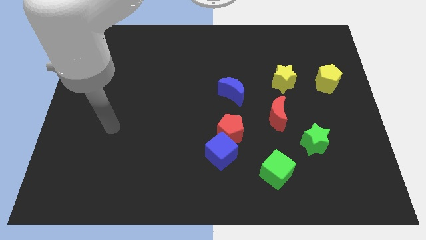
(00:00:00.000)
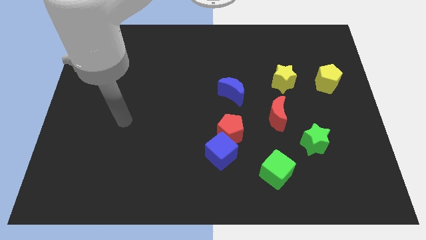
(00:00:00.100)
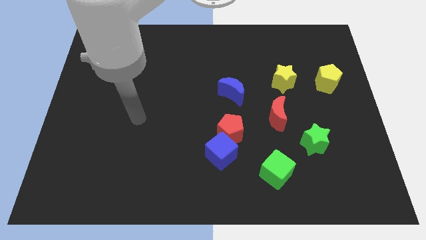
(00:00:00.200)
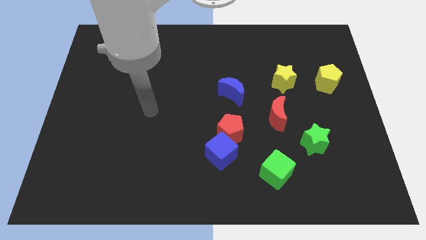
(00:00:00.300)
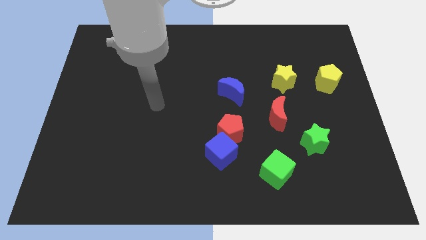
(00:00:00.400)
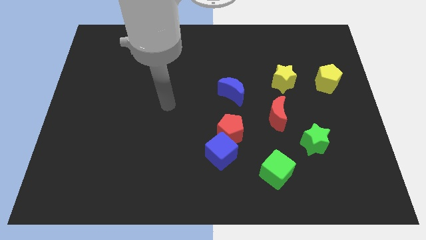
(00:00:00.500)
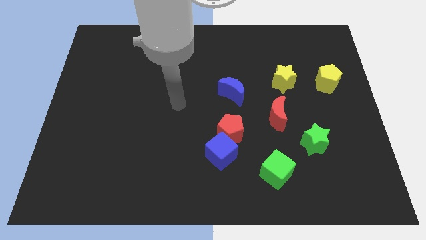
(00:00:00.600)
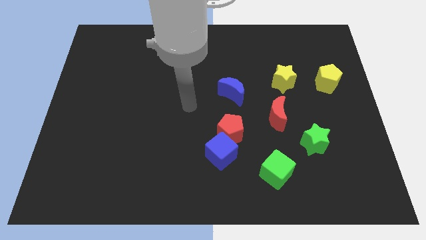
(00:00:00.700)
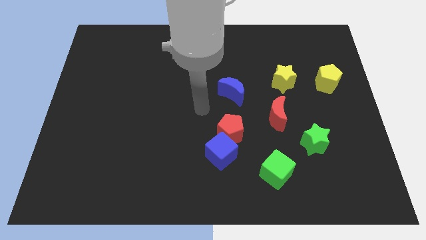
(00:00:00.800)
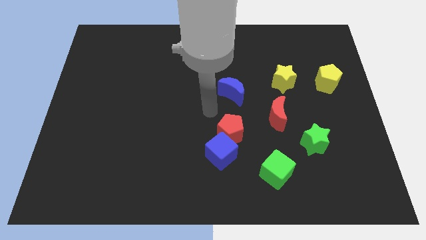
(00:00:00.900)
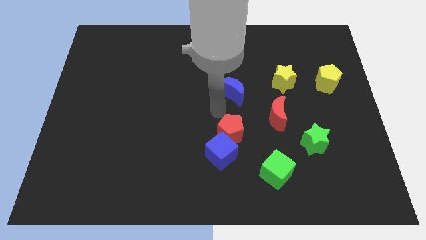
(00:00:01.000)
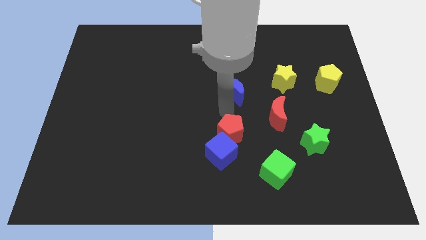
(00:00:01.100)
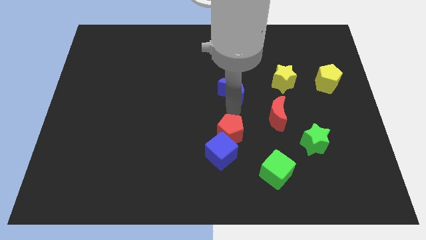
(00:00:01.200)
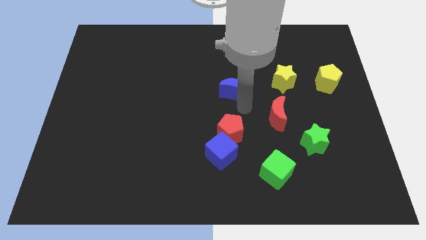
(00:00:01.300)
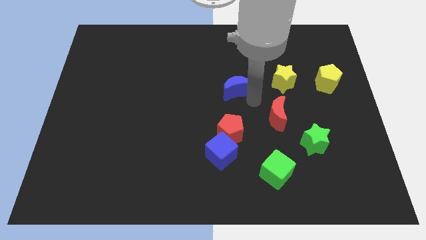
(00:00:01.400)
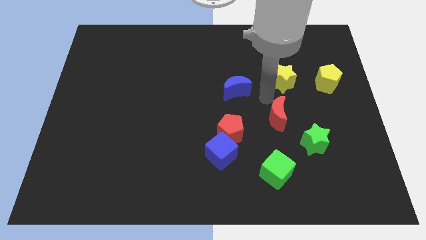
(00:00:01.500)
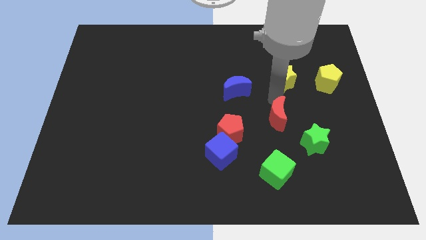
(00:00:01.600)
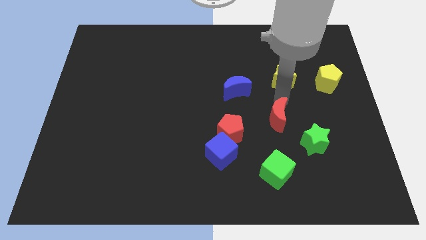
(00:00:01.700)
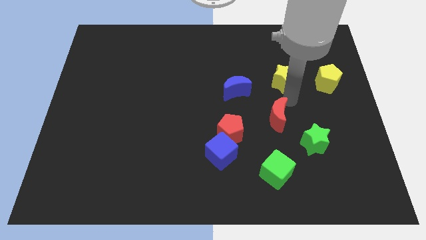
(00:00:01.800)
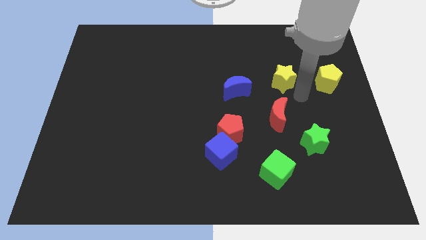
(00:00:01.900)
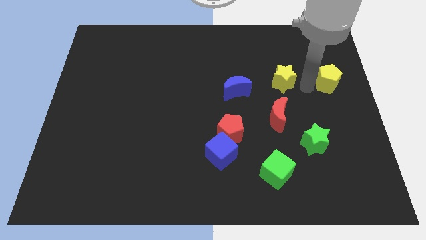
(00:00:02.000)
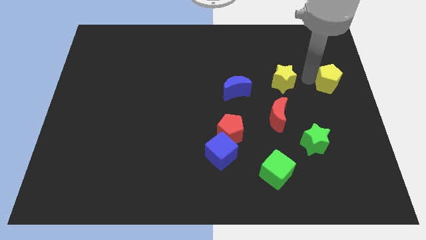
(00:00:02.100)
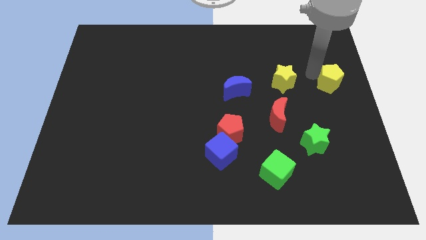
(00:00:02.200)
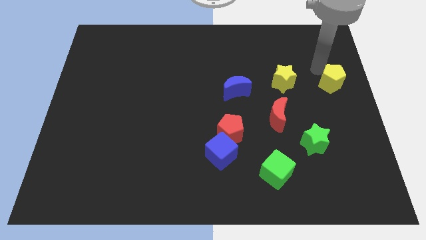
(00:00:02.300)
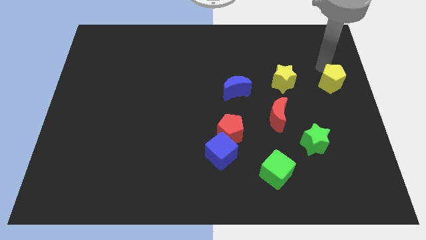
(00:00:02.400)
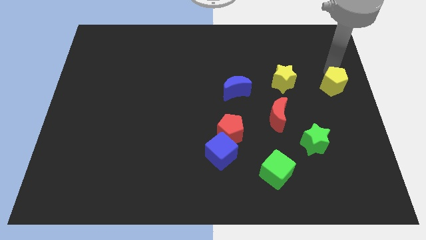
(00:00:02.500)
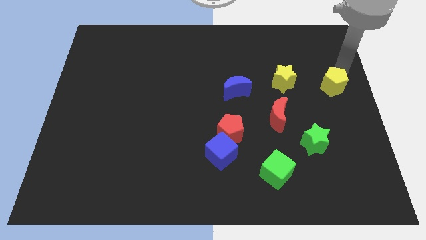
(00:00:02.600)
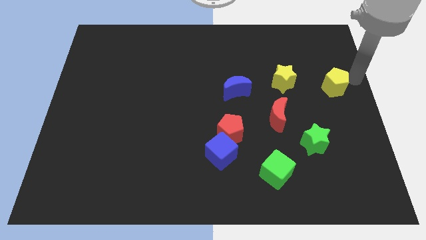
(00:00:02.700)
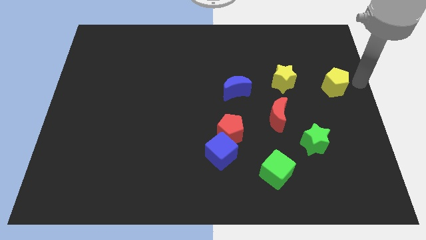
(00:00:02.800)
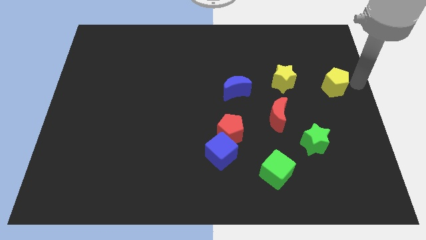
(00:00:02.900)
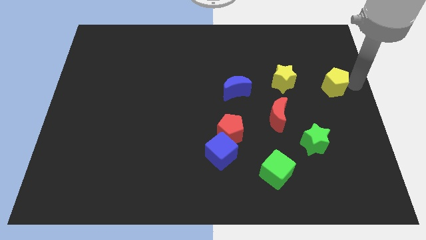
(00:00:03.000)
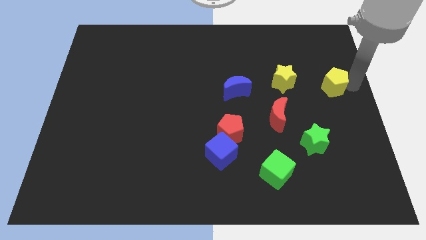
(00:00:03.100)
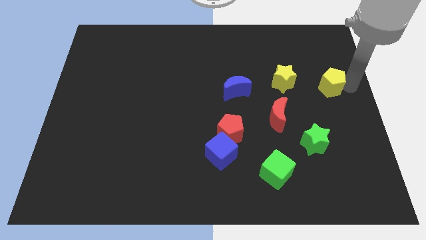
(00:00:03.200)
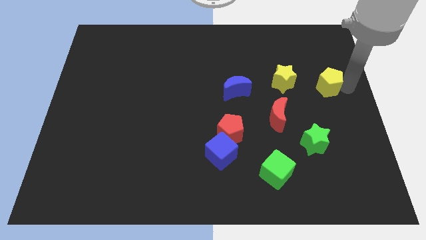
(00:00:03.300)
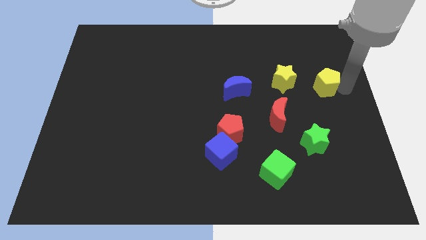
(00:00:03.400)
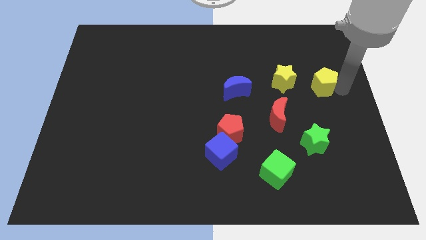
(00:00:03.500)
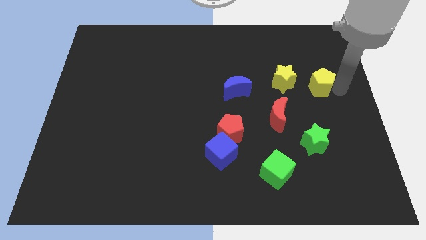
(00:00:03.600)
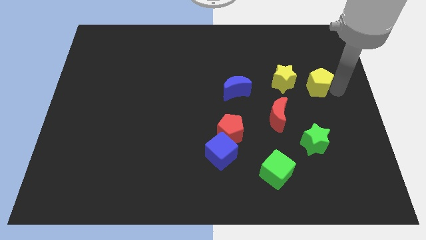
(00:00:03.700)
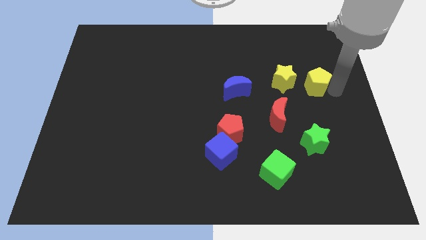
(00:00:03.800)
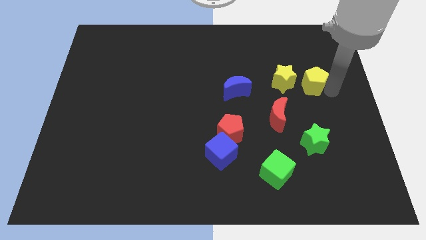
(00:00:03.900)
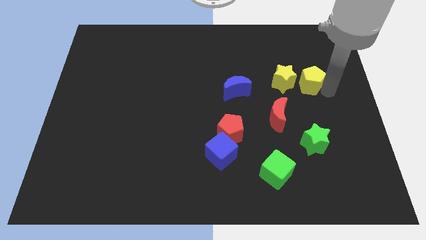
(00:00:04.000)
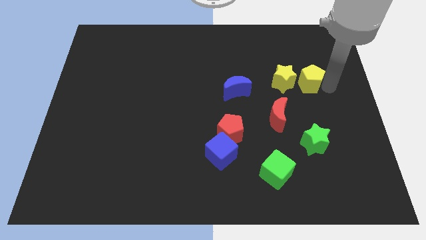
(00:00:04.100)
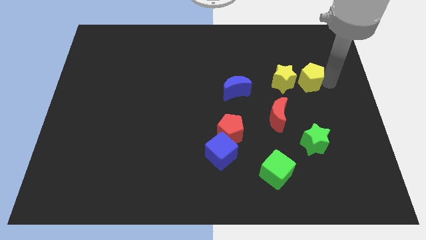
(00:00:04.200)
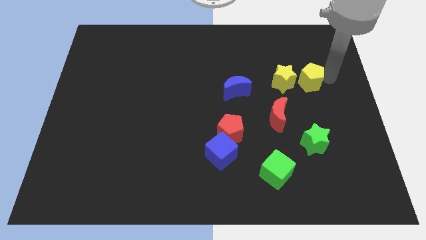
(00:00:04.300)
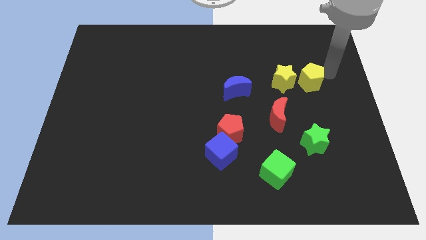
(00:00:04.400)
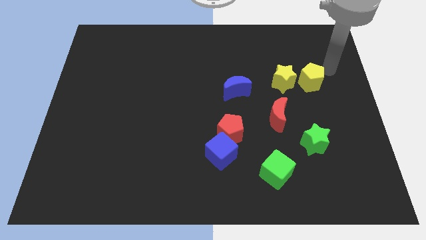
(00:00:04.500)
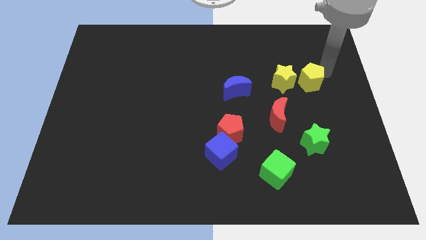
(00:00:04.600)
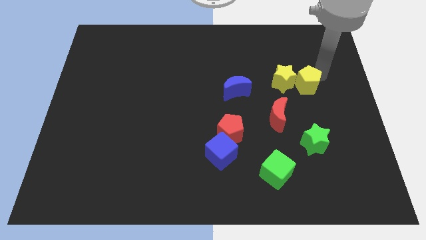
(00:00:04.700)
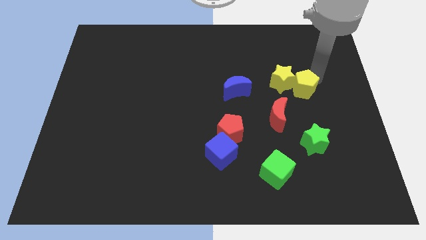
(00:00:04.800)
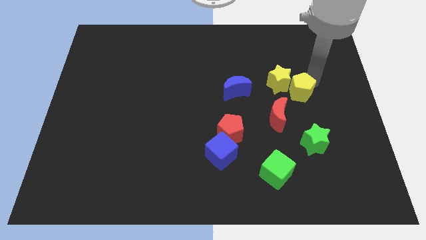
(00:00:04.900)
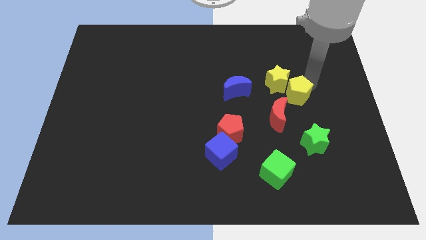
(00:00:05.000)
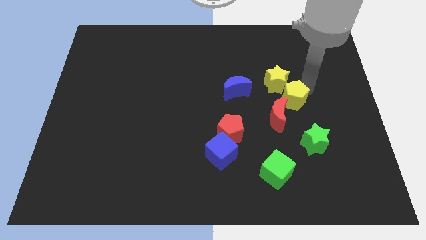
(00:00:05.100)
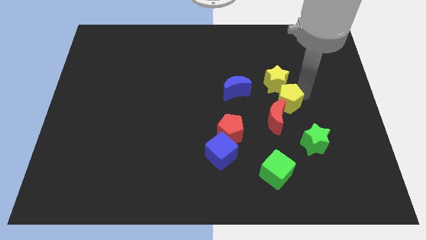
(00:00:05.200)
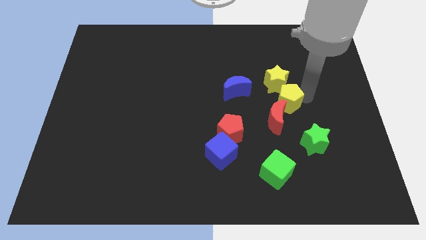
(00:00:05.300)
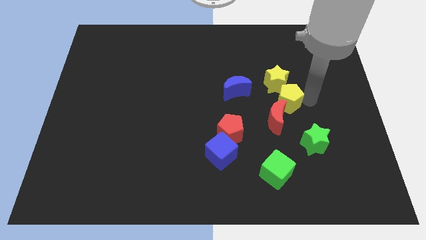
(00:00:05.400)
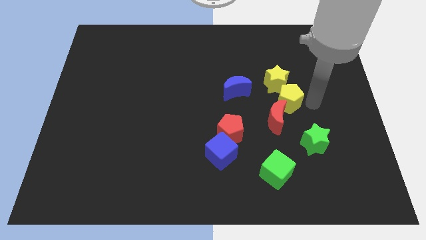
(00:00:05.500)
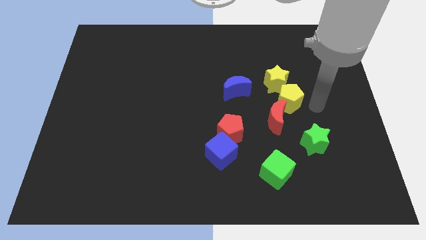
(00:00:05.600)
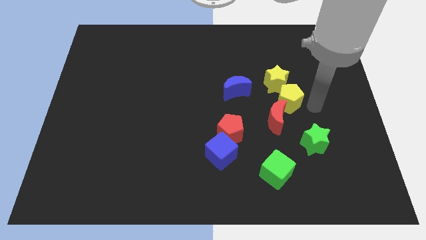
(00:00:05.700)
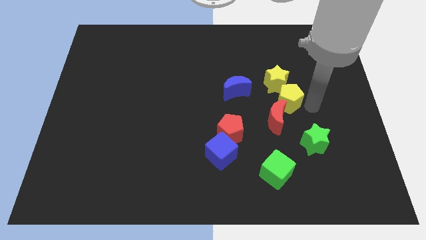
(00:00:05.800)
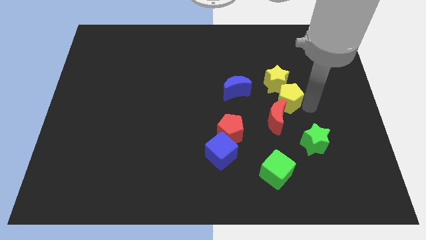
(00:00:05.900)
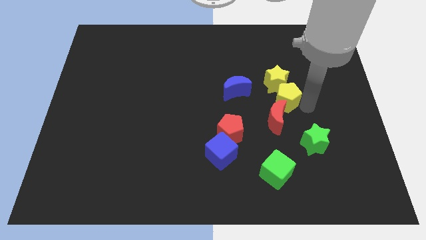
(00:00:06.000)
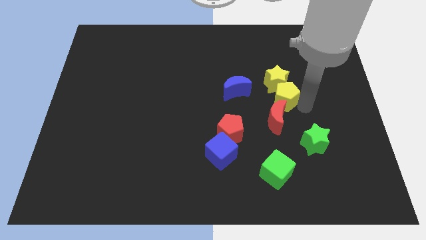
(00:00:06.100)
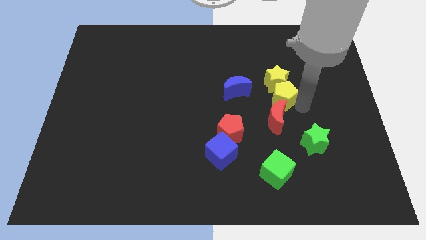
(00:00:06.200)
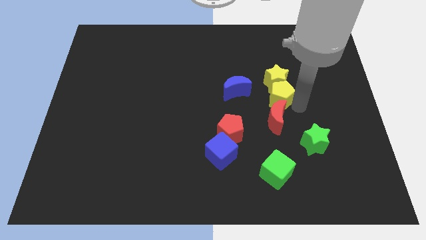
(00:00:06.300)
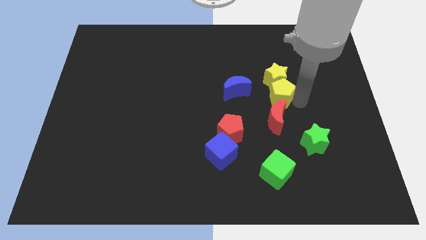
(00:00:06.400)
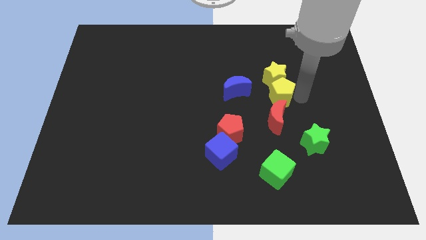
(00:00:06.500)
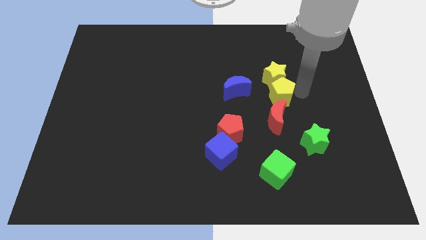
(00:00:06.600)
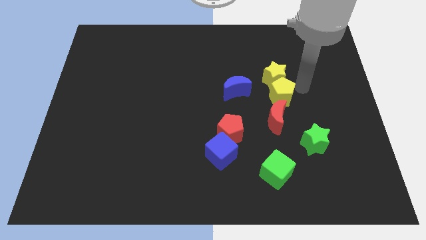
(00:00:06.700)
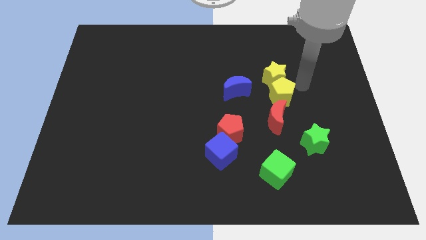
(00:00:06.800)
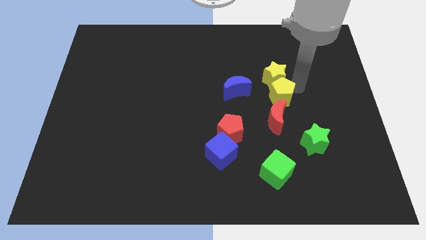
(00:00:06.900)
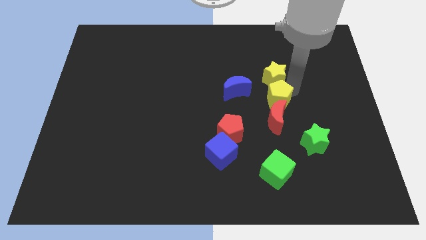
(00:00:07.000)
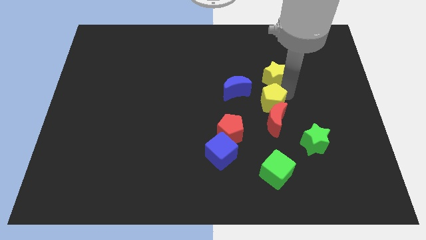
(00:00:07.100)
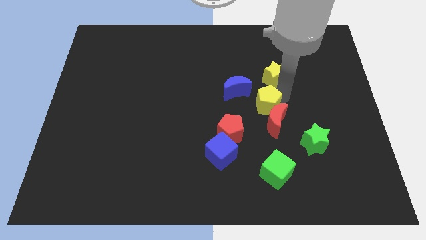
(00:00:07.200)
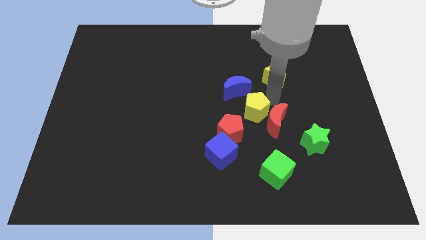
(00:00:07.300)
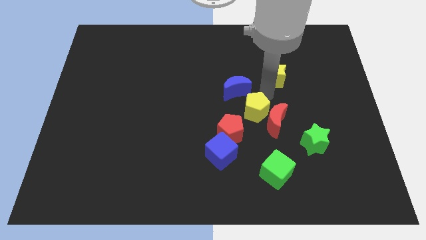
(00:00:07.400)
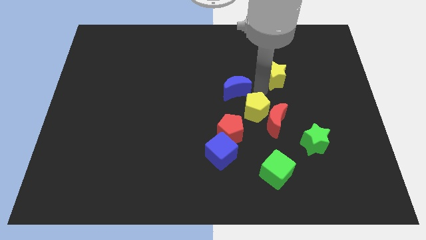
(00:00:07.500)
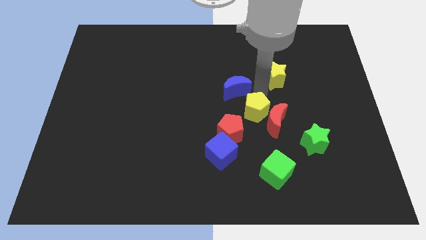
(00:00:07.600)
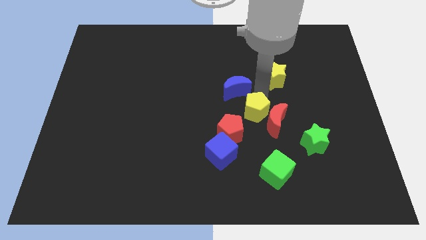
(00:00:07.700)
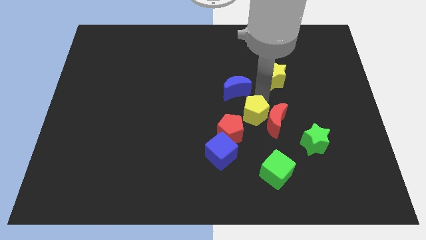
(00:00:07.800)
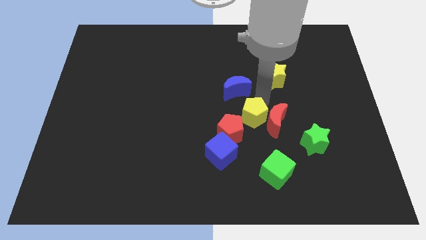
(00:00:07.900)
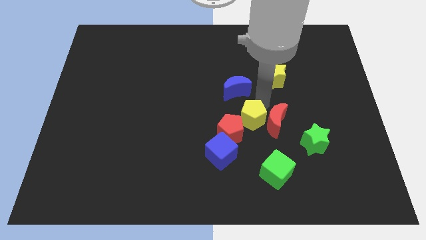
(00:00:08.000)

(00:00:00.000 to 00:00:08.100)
move the yellow pentagon diagonally down and to the left
